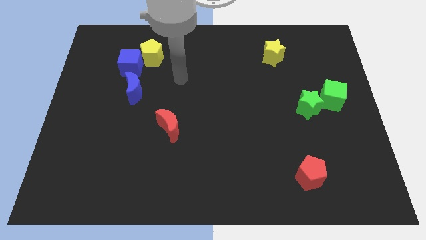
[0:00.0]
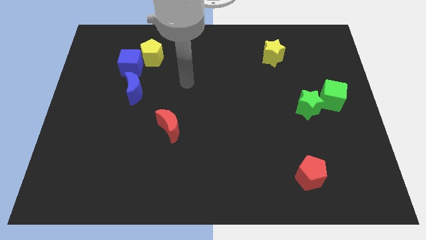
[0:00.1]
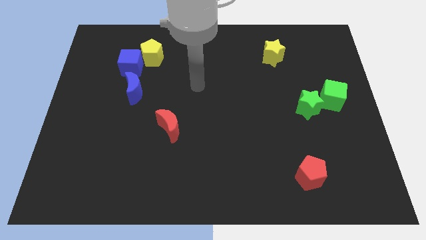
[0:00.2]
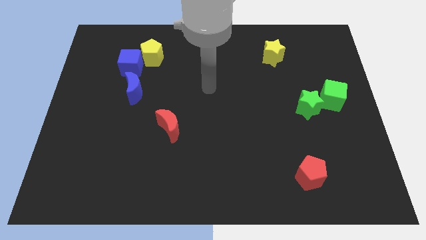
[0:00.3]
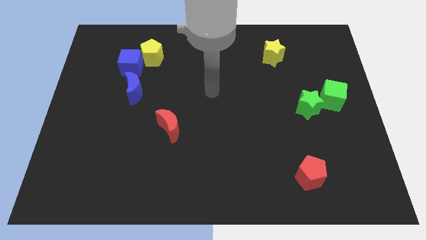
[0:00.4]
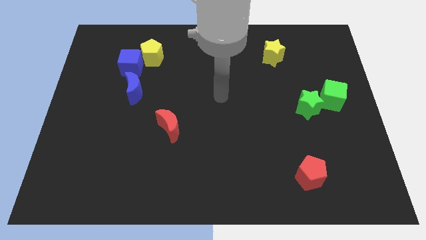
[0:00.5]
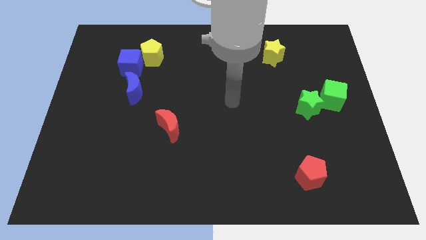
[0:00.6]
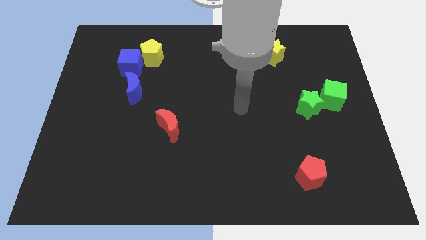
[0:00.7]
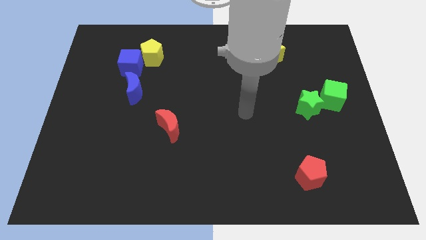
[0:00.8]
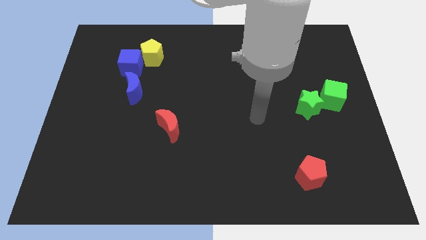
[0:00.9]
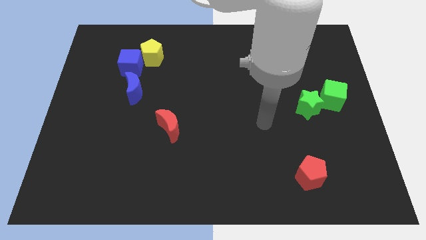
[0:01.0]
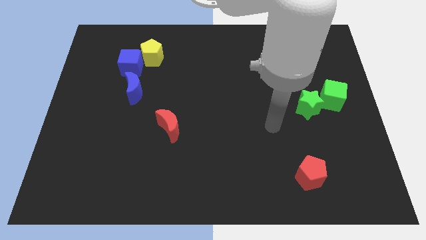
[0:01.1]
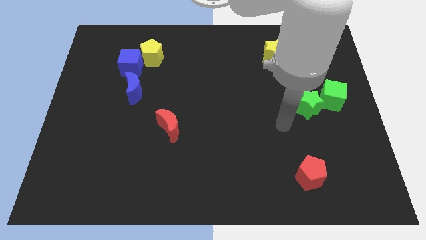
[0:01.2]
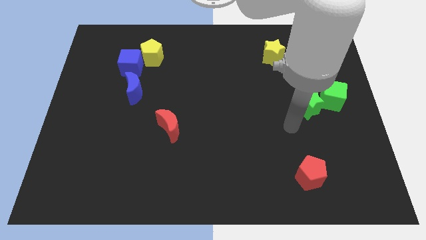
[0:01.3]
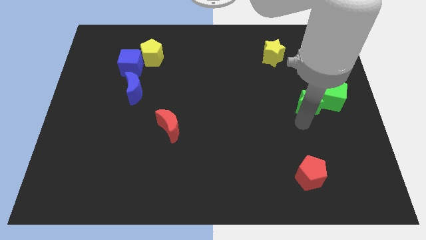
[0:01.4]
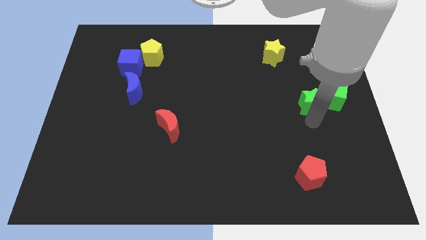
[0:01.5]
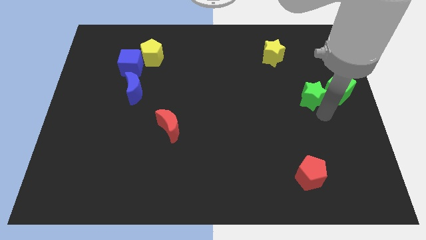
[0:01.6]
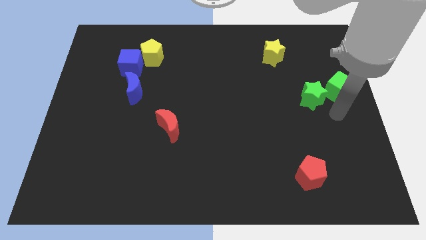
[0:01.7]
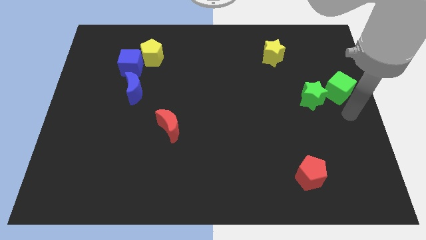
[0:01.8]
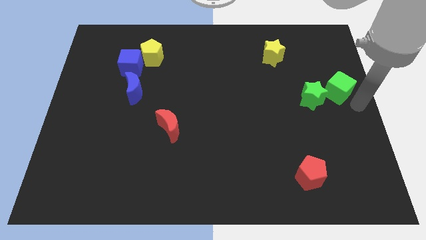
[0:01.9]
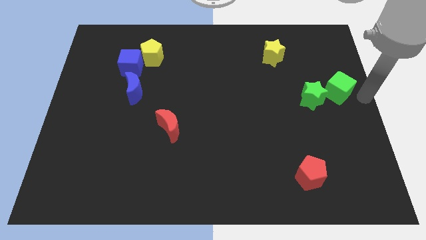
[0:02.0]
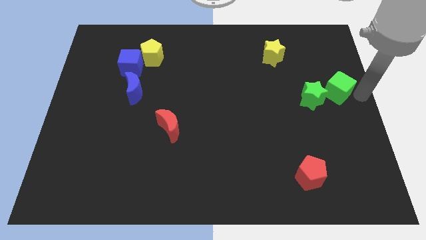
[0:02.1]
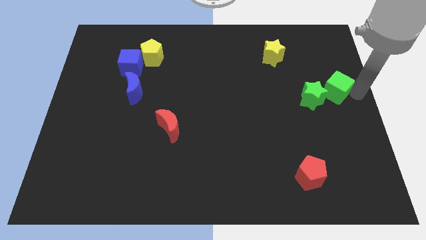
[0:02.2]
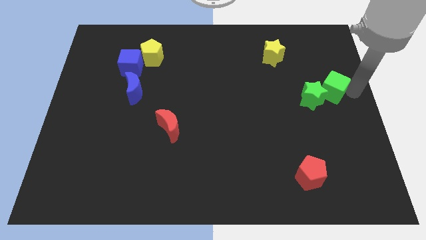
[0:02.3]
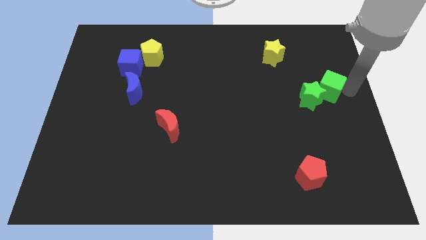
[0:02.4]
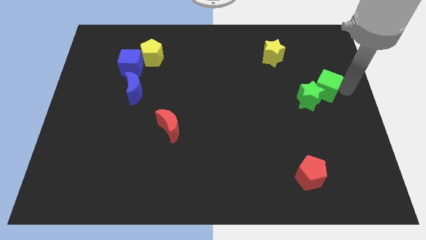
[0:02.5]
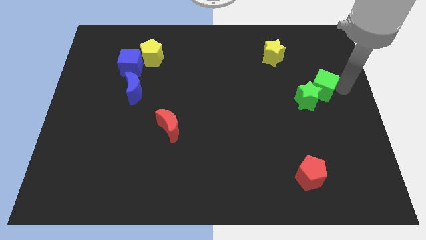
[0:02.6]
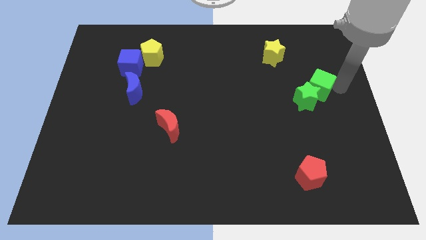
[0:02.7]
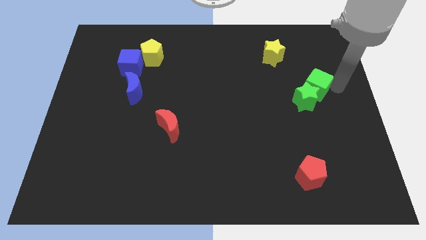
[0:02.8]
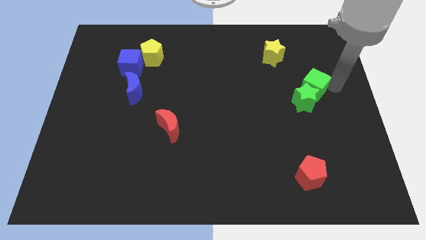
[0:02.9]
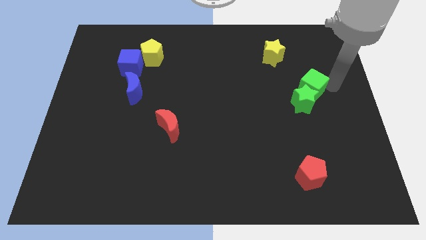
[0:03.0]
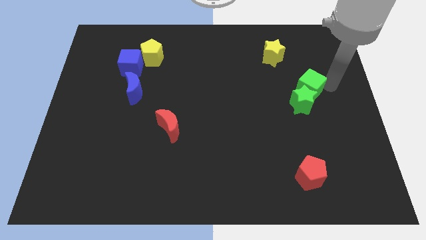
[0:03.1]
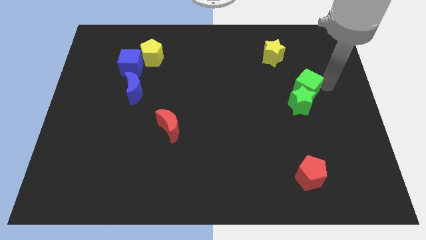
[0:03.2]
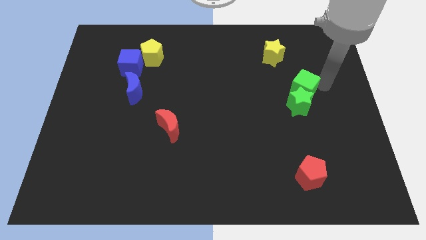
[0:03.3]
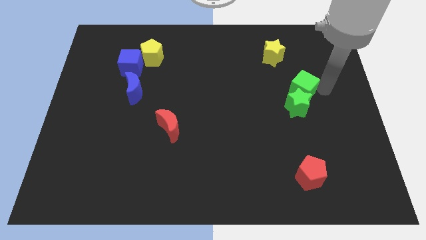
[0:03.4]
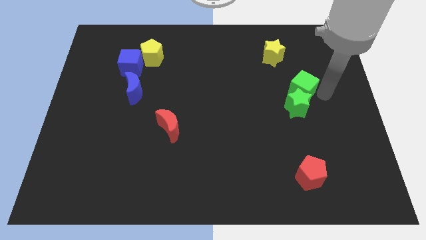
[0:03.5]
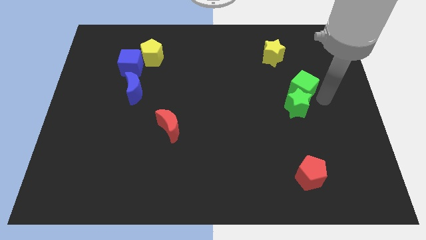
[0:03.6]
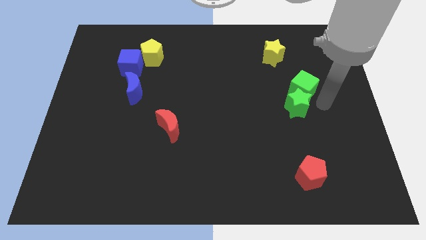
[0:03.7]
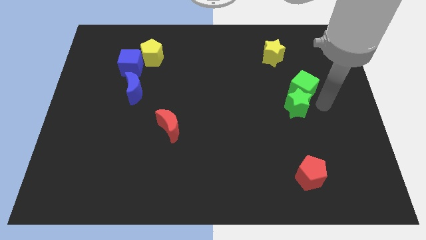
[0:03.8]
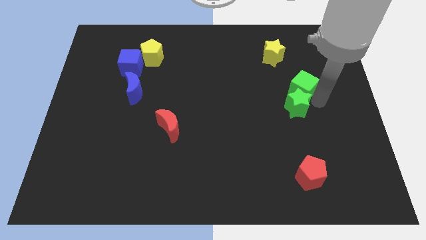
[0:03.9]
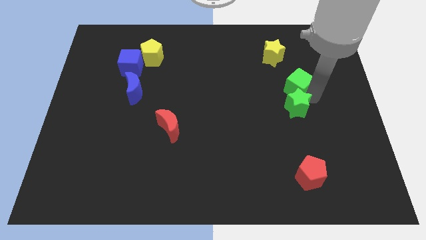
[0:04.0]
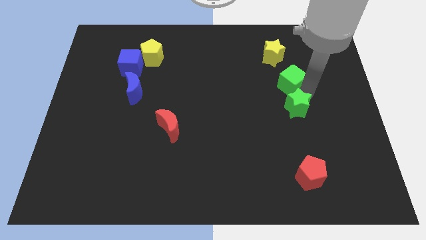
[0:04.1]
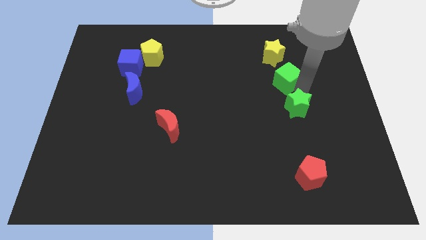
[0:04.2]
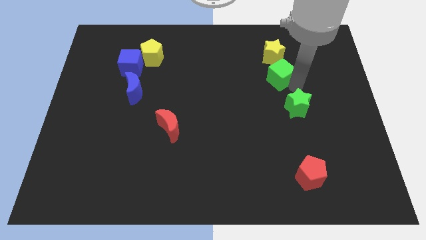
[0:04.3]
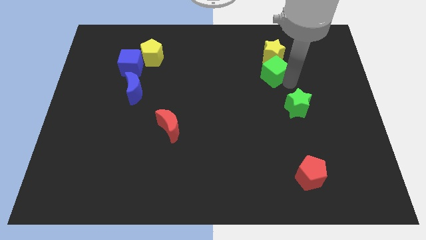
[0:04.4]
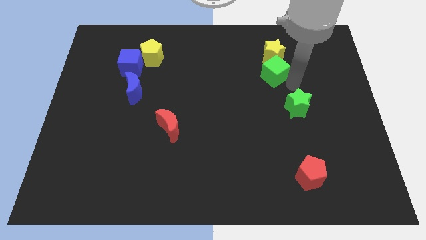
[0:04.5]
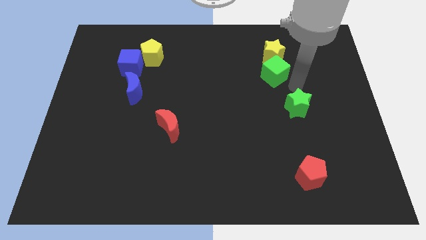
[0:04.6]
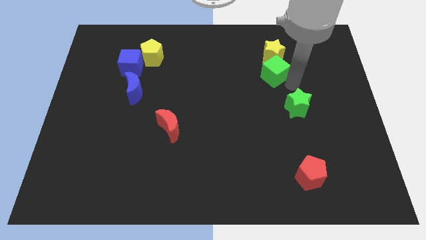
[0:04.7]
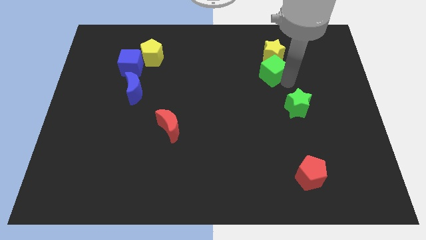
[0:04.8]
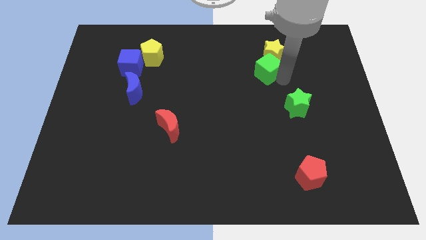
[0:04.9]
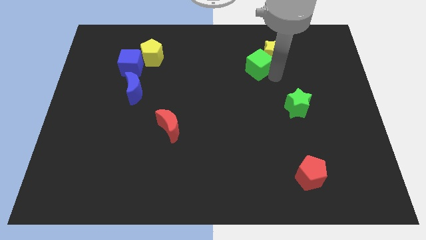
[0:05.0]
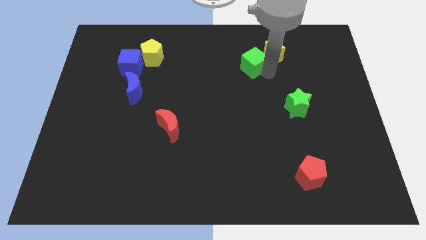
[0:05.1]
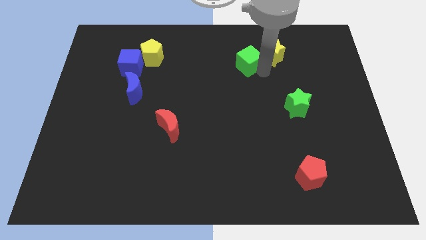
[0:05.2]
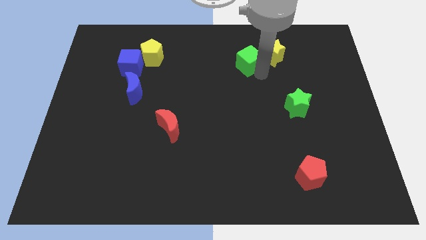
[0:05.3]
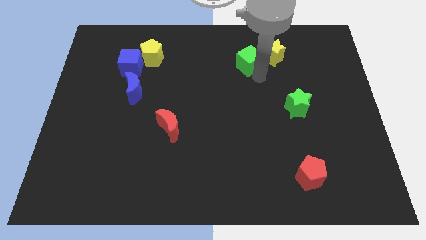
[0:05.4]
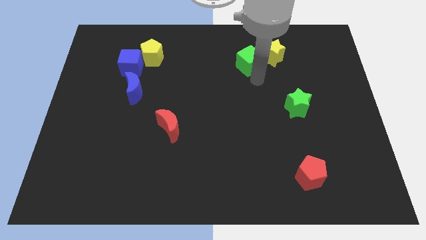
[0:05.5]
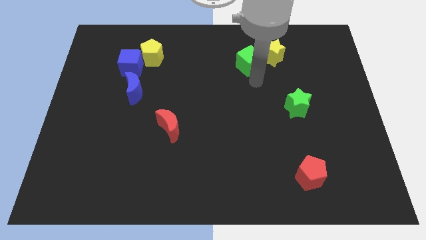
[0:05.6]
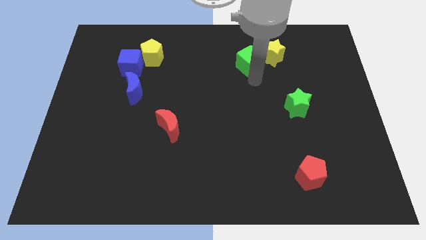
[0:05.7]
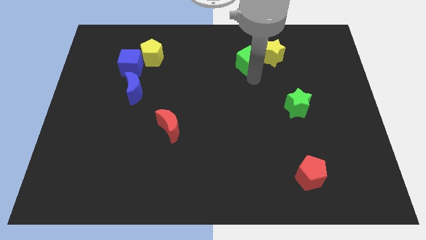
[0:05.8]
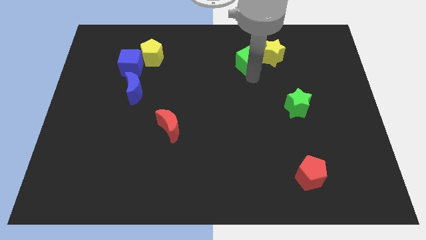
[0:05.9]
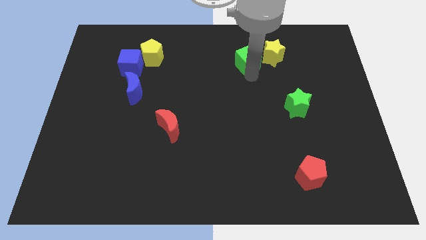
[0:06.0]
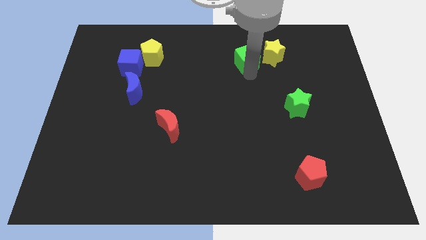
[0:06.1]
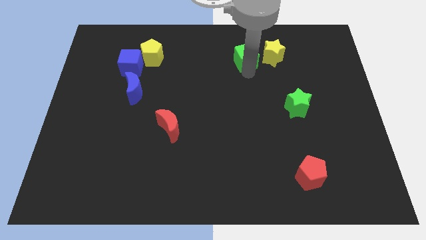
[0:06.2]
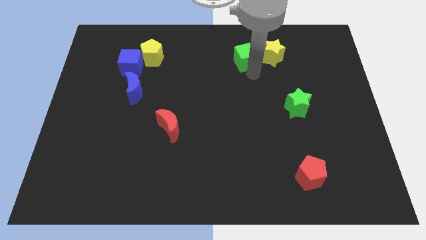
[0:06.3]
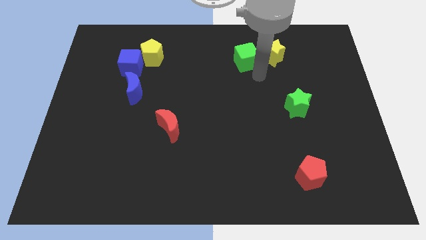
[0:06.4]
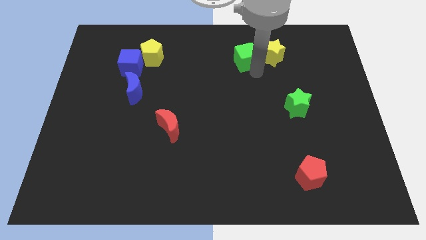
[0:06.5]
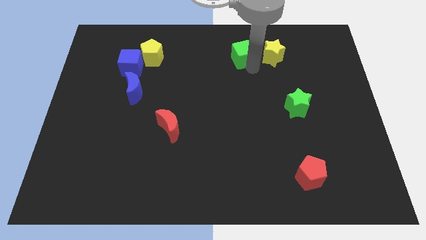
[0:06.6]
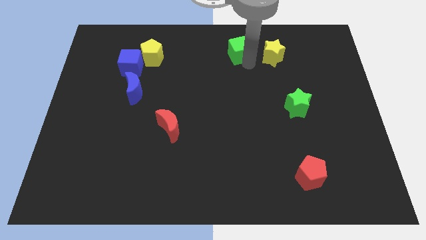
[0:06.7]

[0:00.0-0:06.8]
put the green cube to the top side
